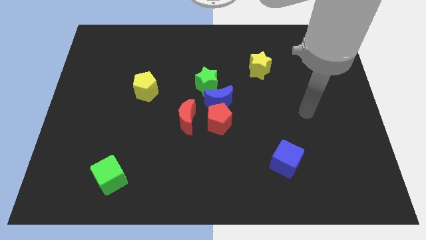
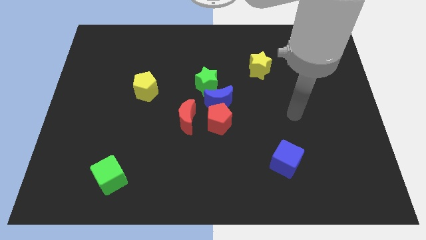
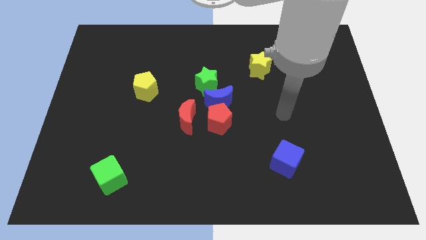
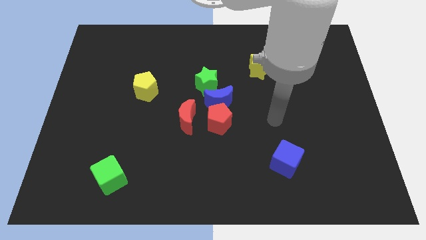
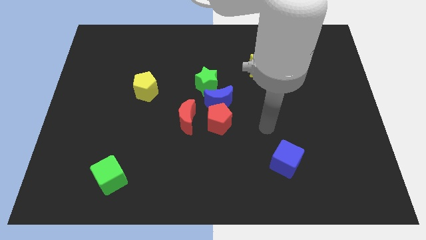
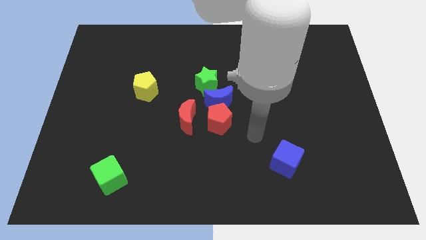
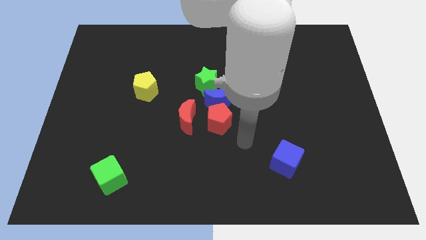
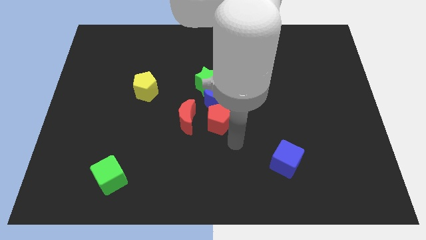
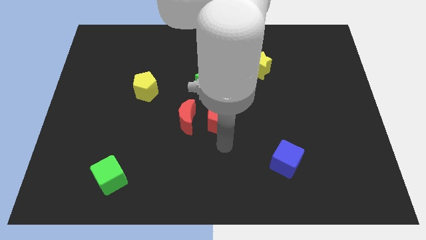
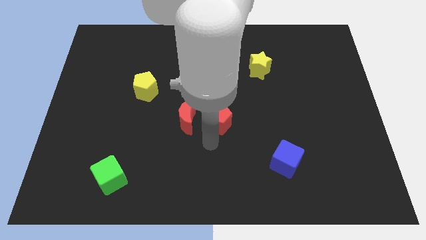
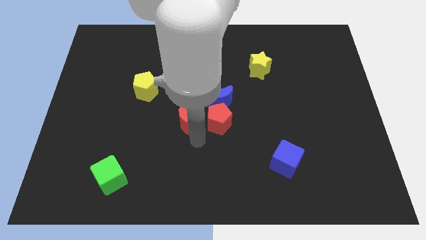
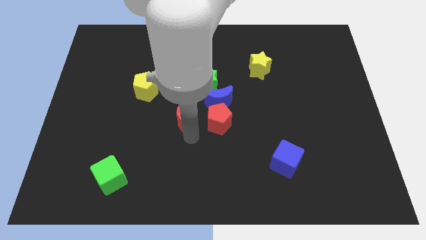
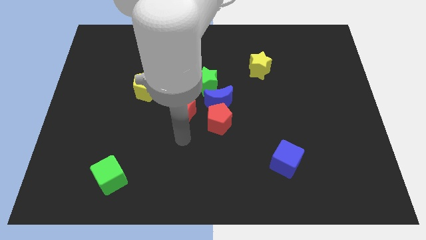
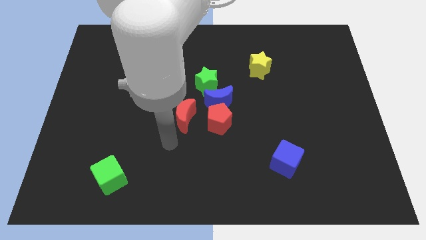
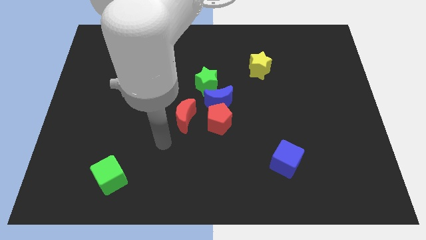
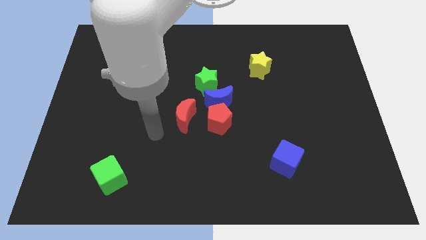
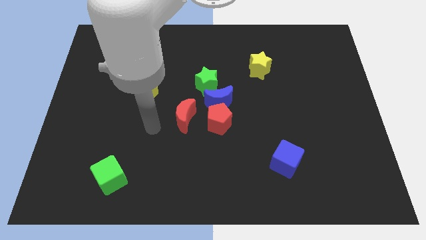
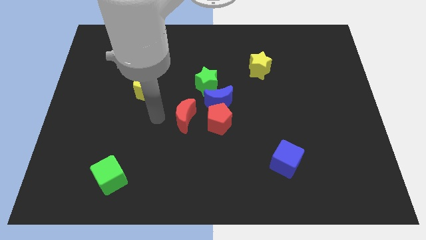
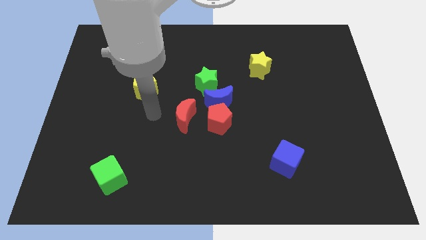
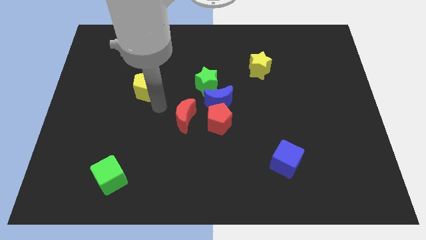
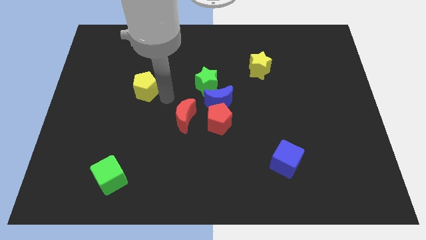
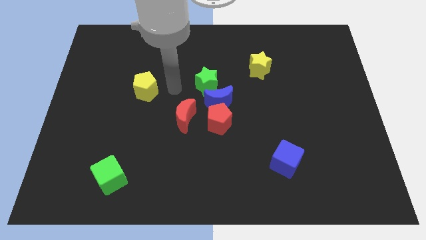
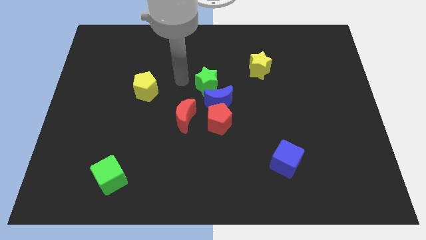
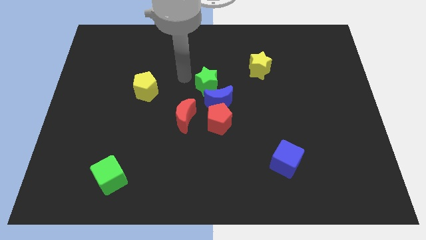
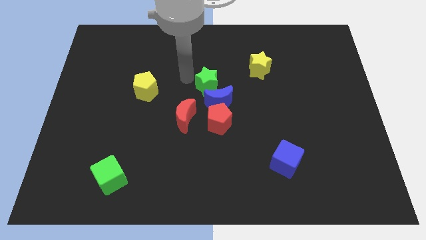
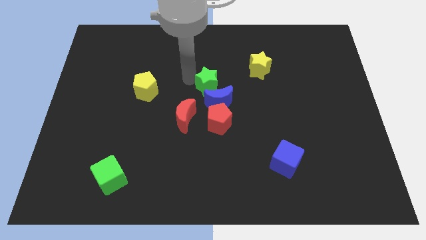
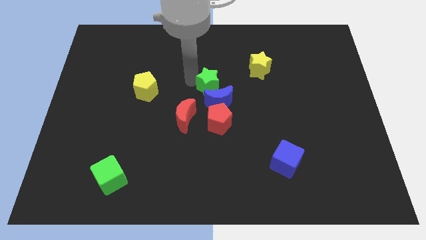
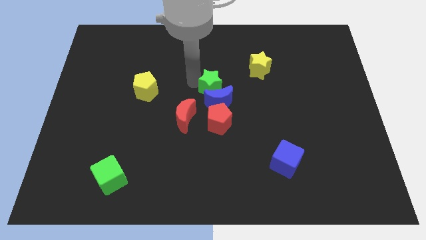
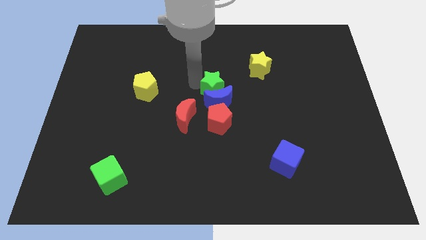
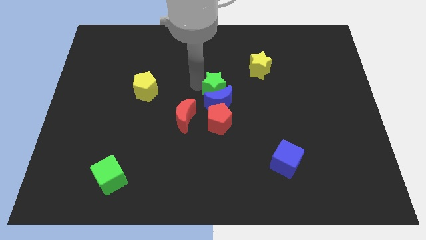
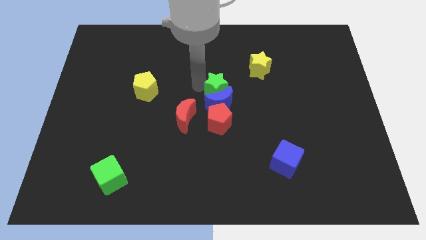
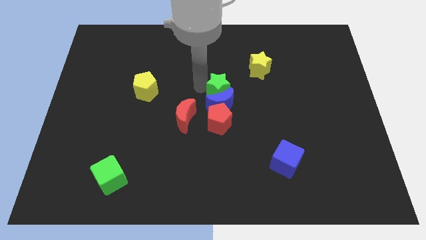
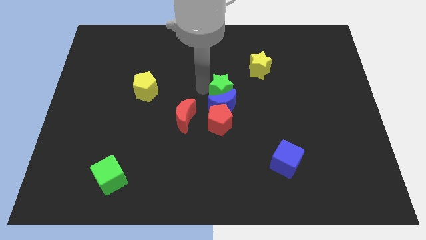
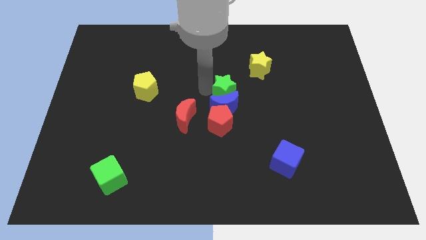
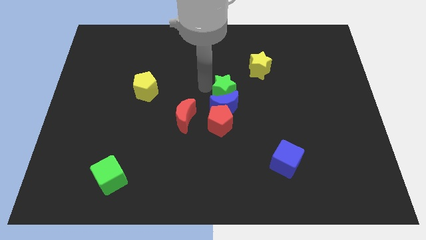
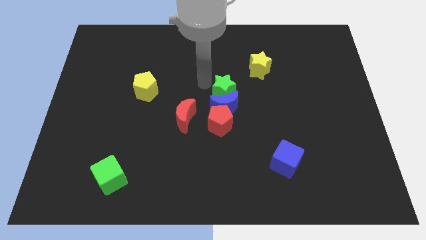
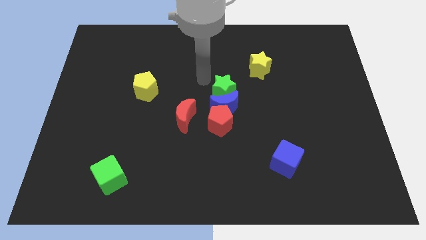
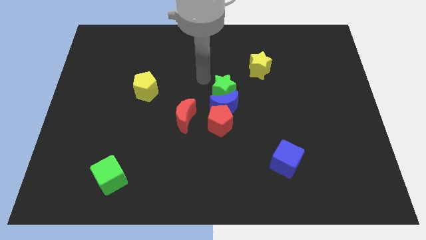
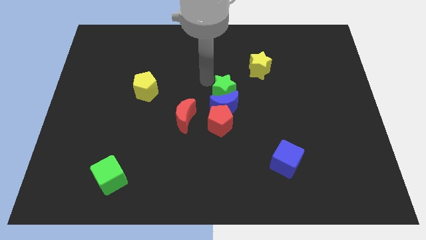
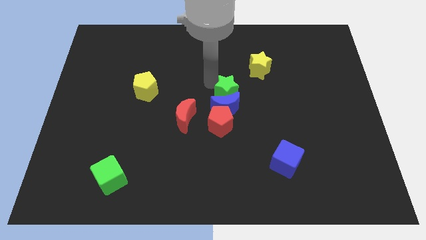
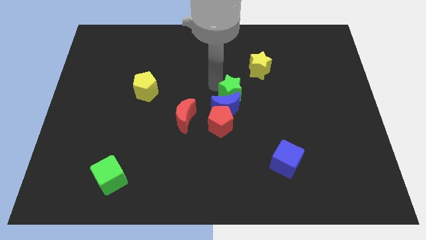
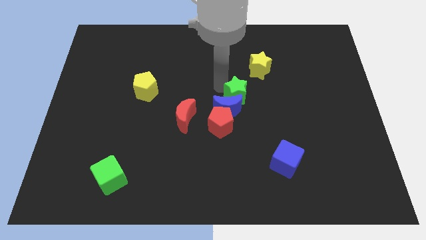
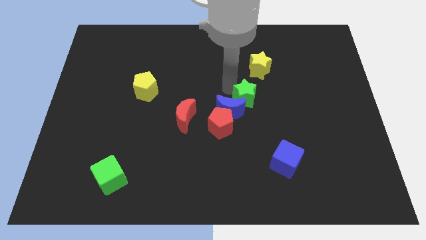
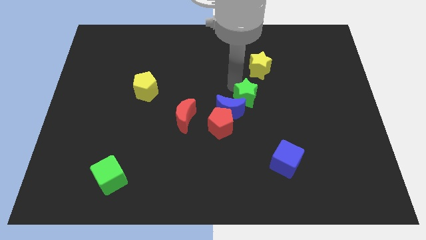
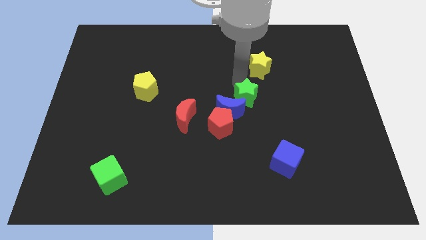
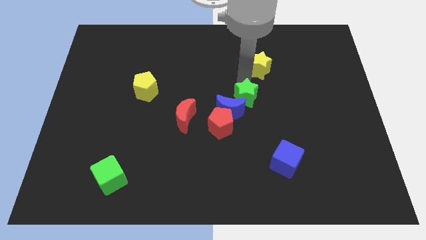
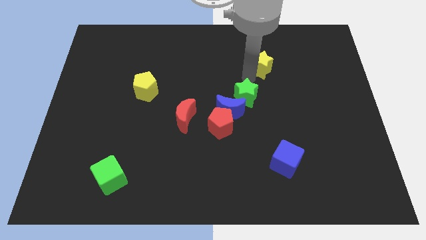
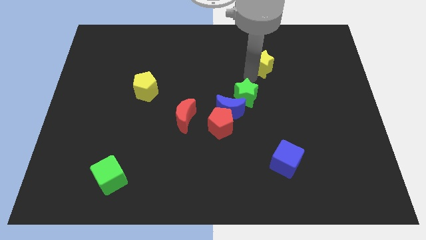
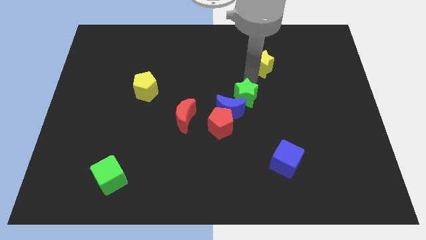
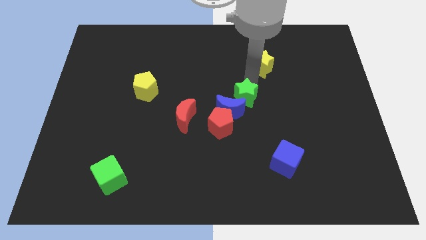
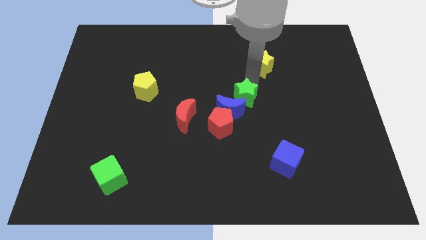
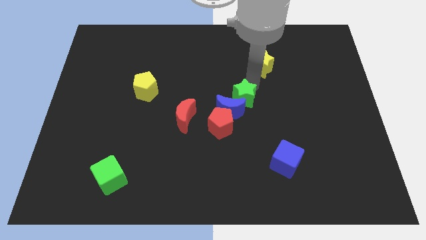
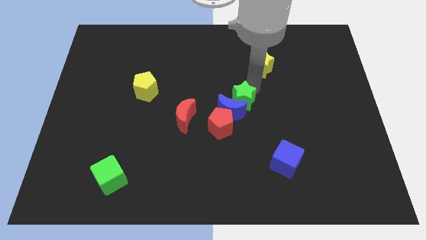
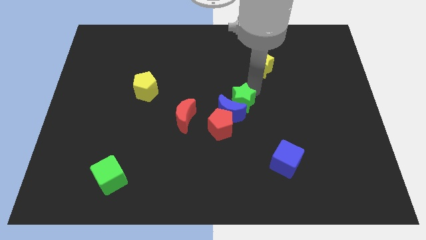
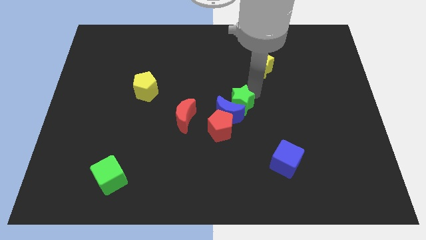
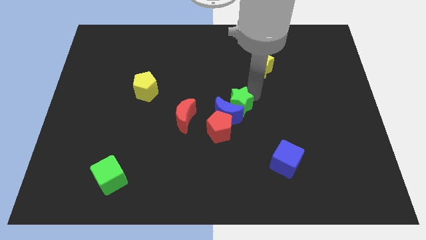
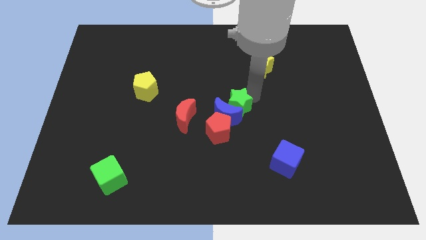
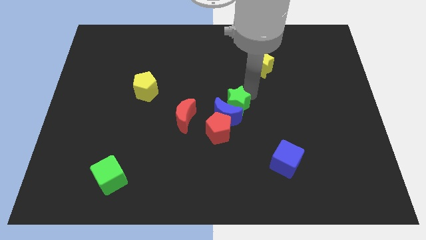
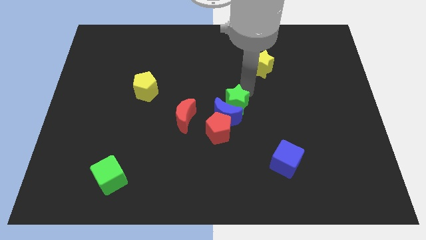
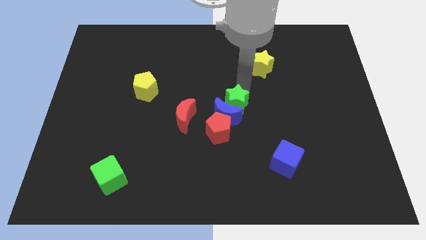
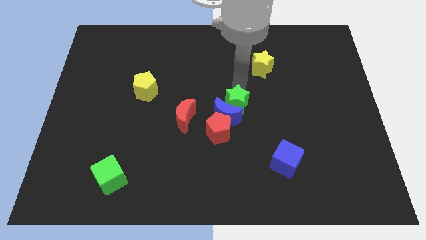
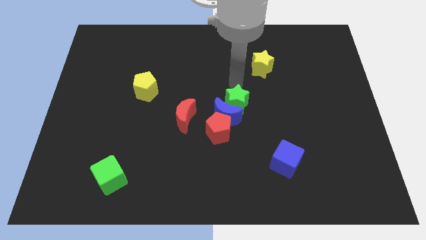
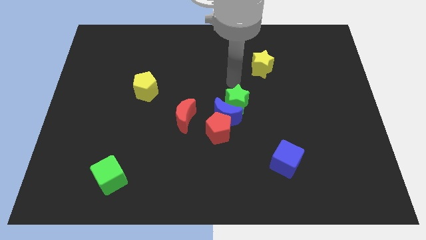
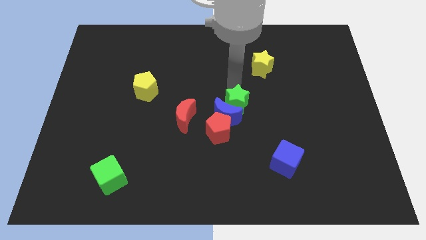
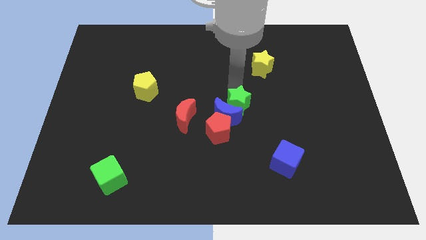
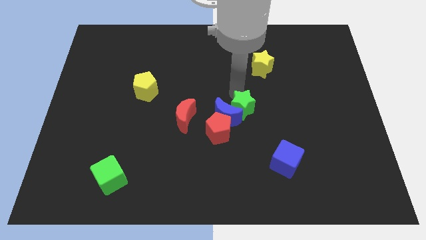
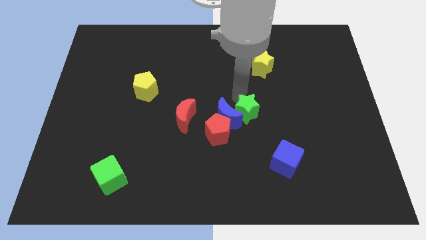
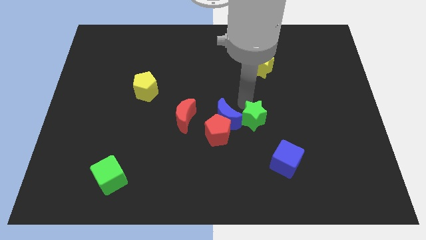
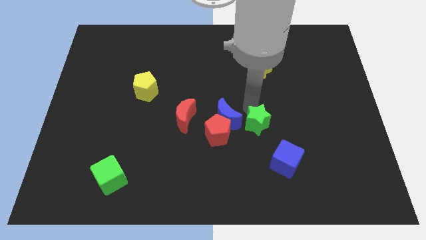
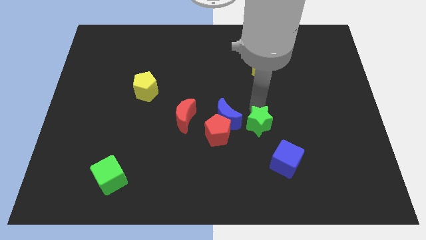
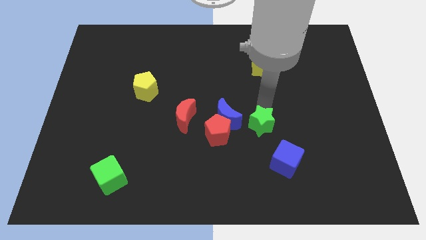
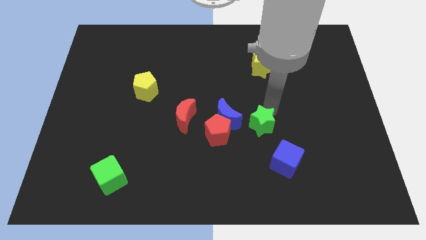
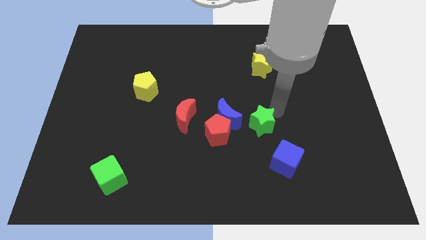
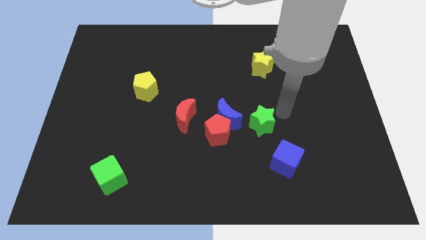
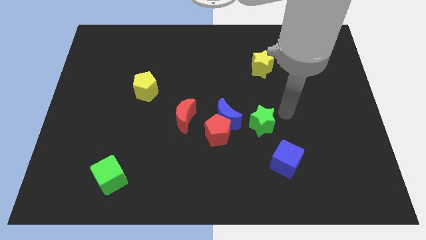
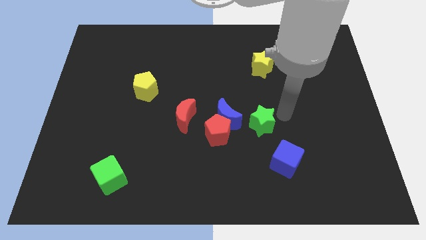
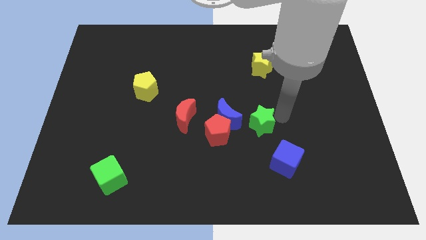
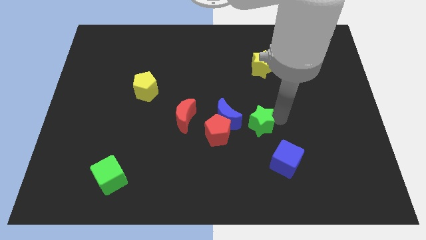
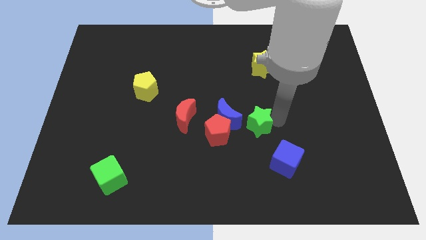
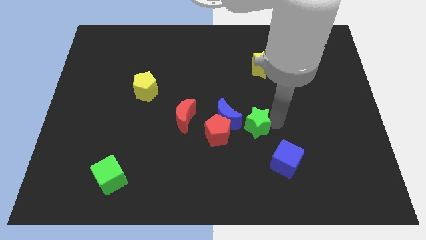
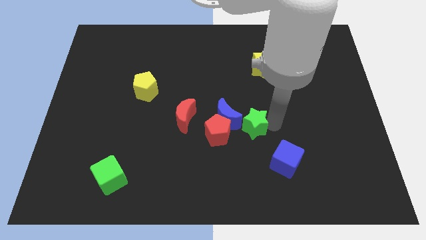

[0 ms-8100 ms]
push the green star a little down
